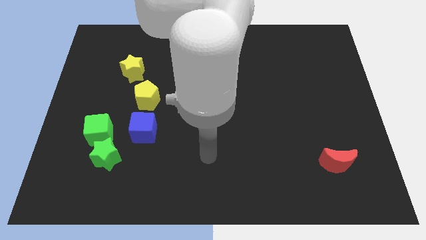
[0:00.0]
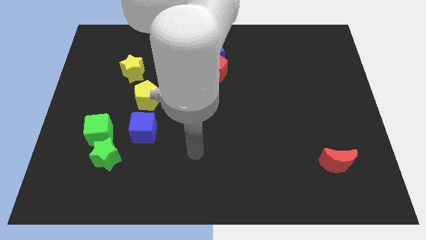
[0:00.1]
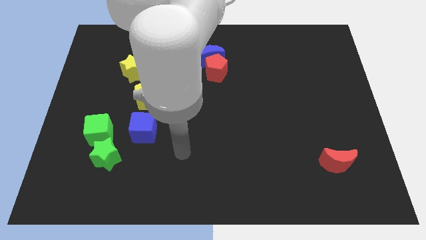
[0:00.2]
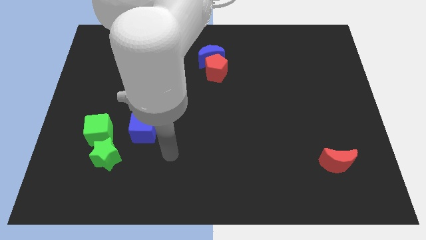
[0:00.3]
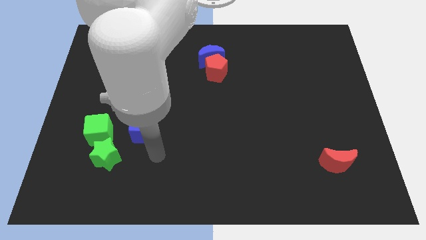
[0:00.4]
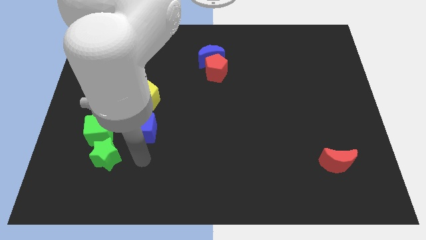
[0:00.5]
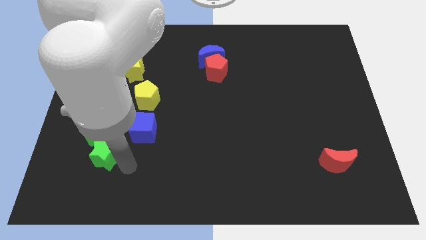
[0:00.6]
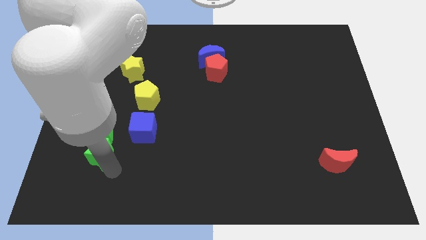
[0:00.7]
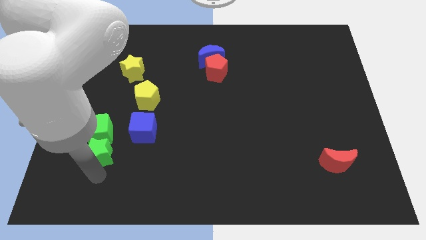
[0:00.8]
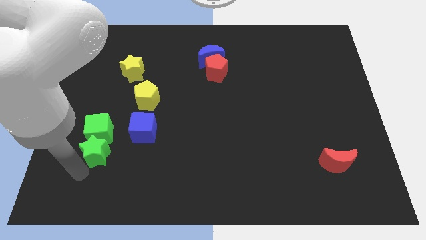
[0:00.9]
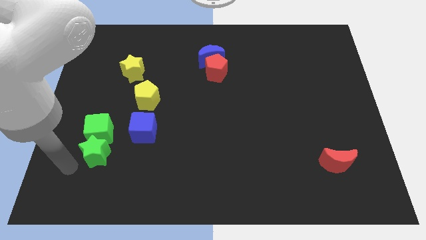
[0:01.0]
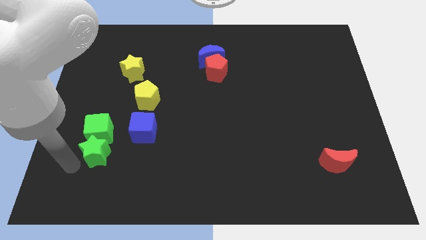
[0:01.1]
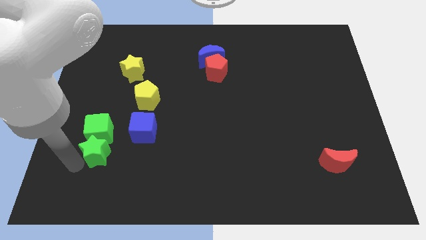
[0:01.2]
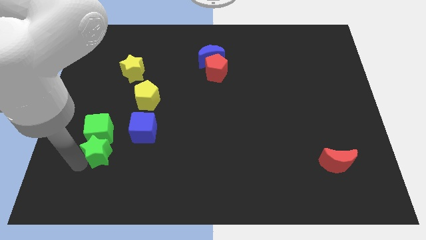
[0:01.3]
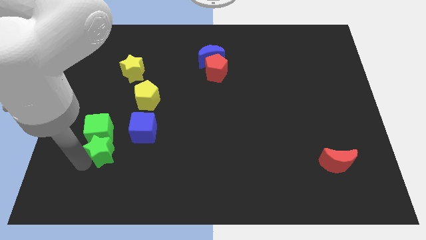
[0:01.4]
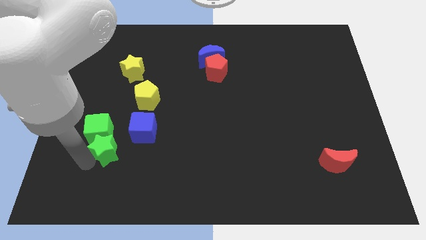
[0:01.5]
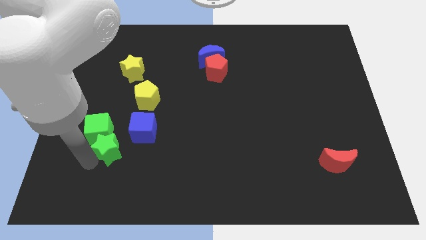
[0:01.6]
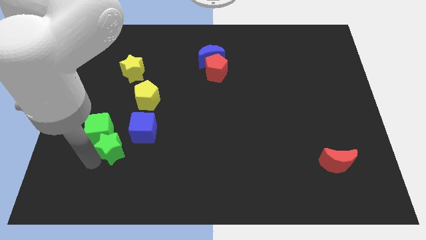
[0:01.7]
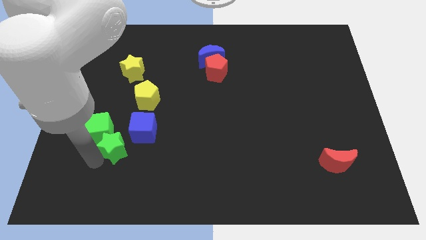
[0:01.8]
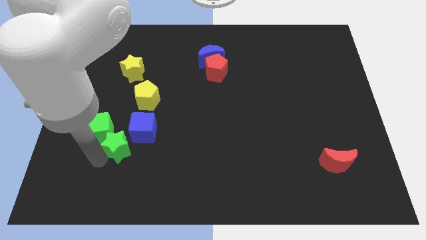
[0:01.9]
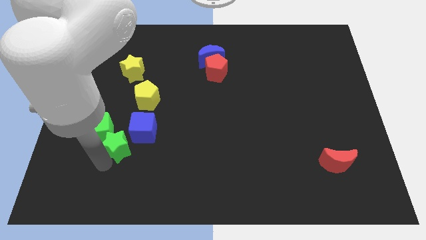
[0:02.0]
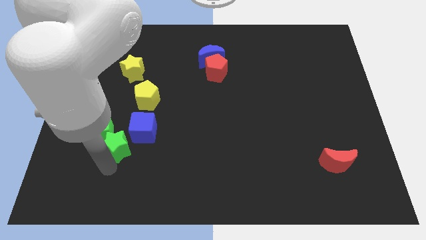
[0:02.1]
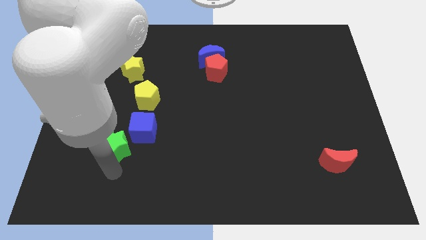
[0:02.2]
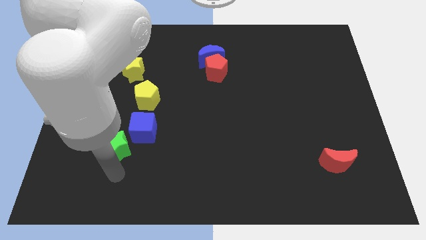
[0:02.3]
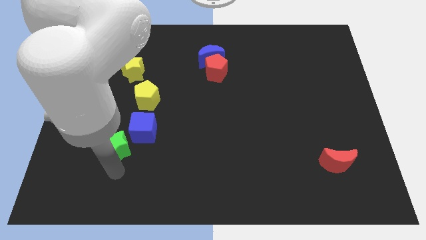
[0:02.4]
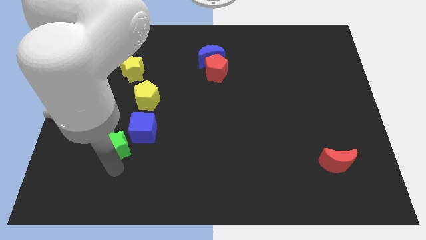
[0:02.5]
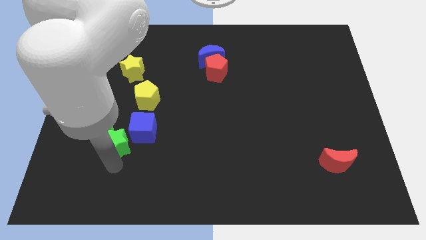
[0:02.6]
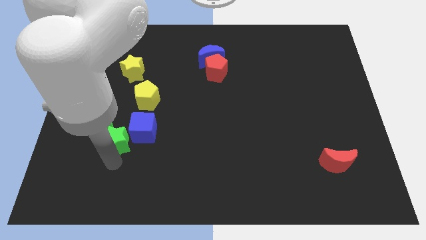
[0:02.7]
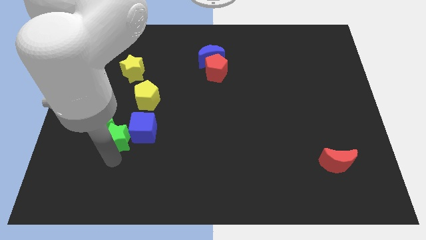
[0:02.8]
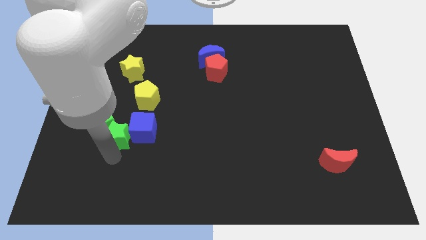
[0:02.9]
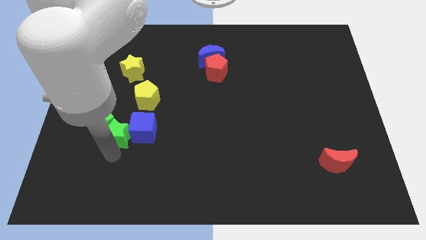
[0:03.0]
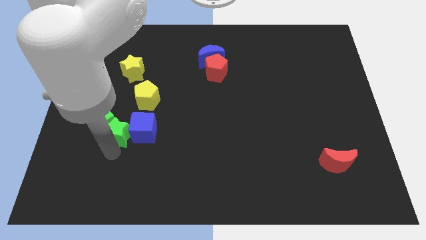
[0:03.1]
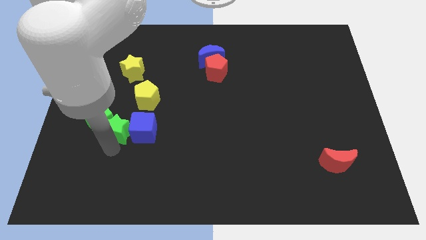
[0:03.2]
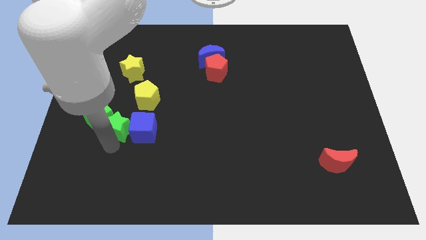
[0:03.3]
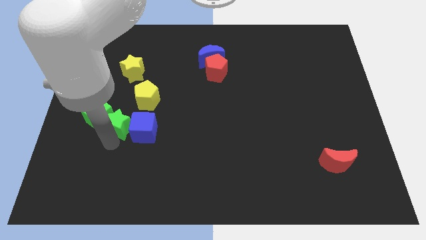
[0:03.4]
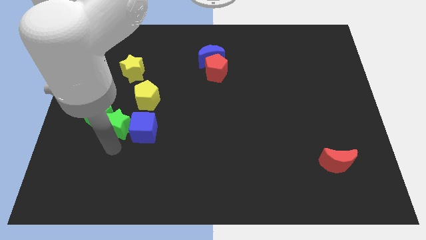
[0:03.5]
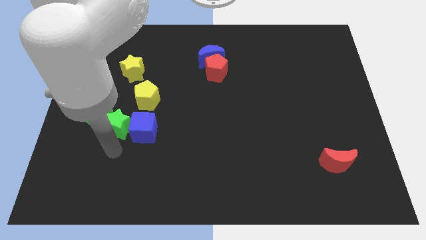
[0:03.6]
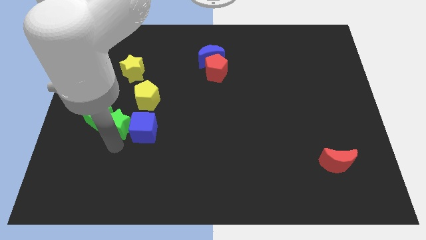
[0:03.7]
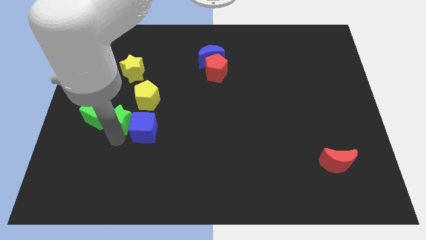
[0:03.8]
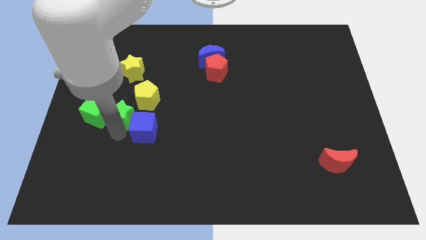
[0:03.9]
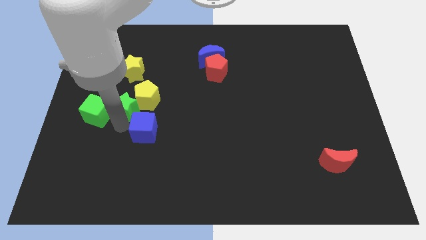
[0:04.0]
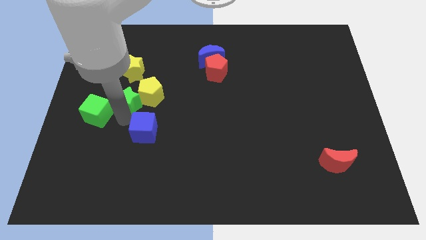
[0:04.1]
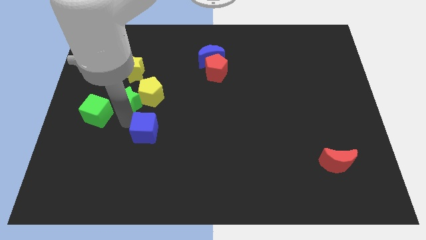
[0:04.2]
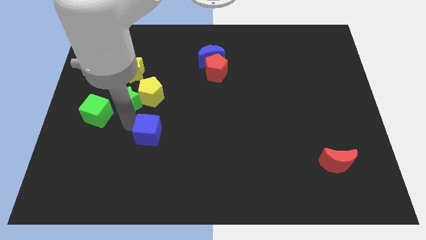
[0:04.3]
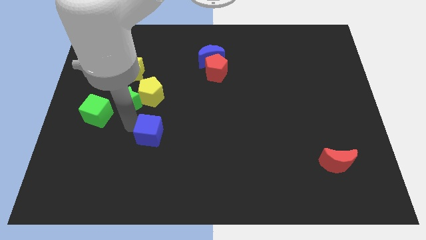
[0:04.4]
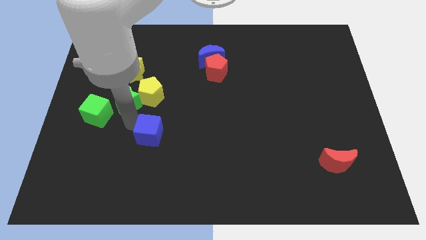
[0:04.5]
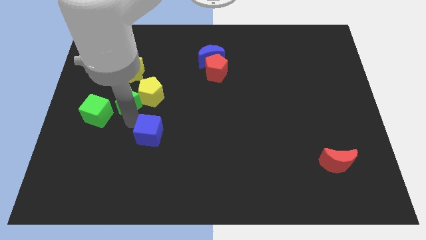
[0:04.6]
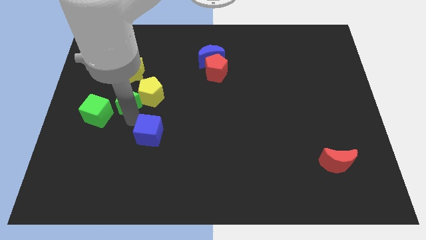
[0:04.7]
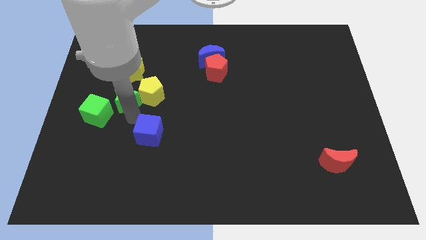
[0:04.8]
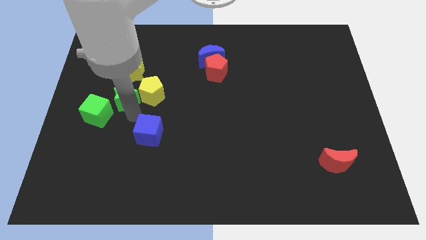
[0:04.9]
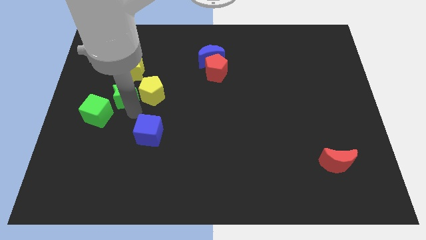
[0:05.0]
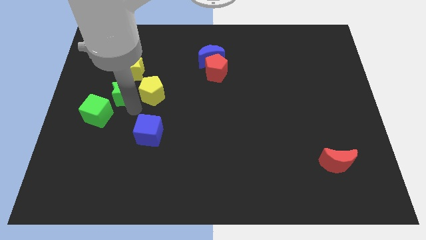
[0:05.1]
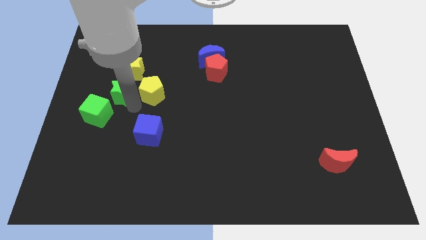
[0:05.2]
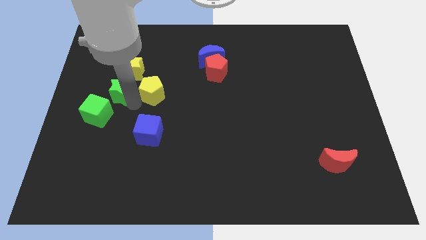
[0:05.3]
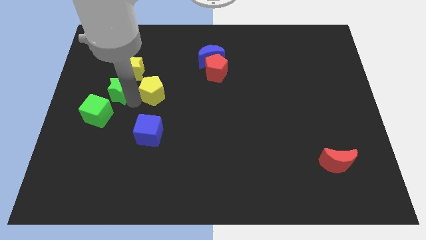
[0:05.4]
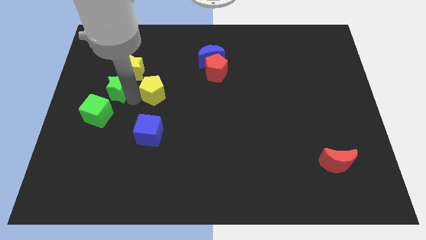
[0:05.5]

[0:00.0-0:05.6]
slide the green star next to the yellow star

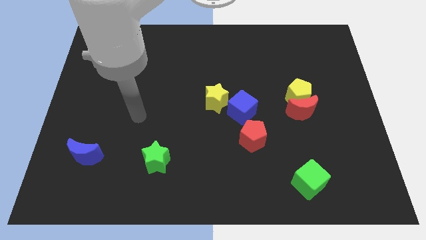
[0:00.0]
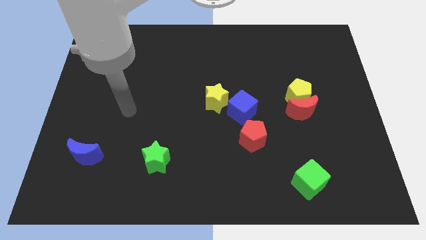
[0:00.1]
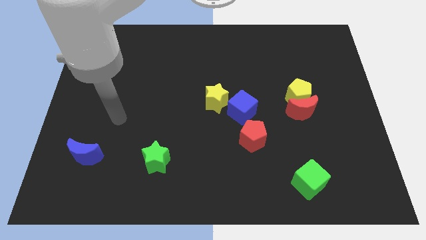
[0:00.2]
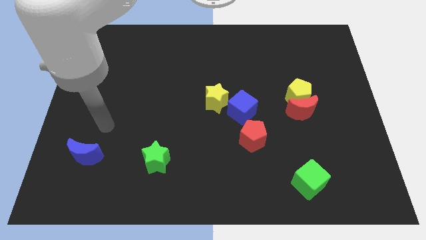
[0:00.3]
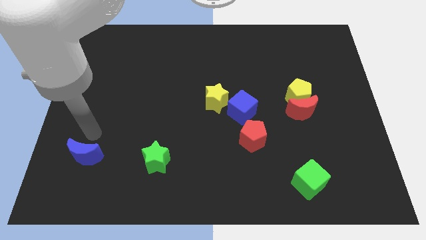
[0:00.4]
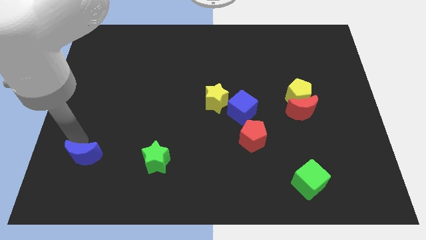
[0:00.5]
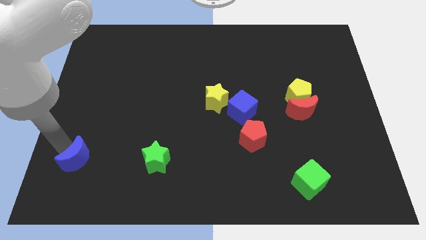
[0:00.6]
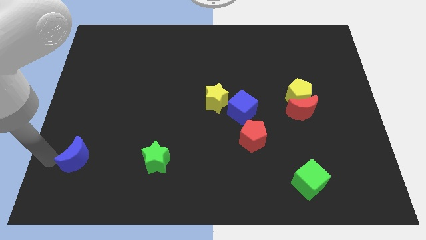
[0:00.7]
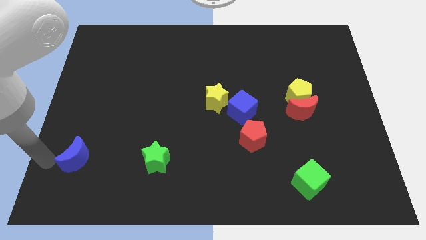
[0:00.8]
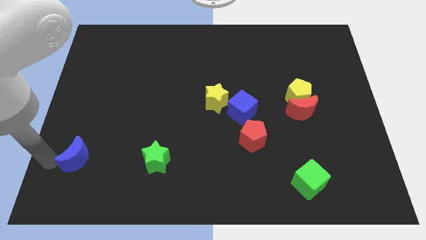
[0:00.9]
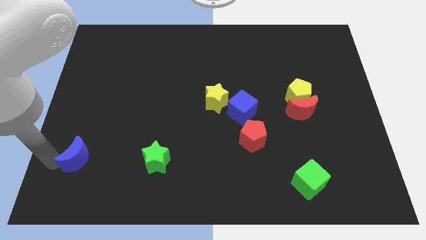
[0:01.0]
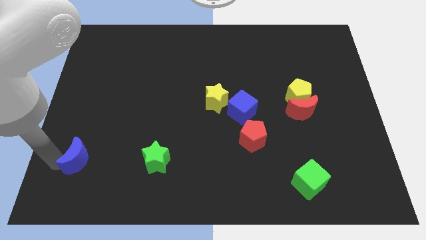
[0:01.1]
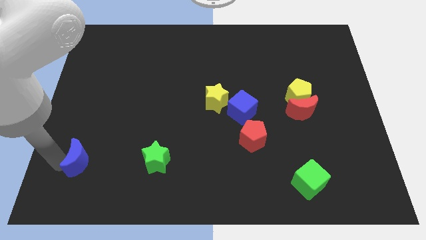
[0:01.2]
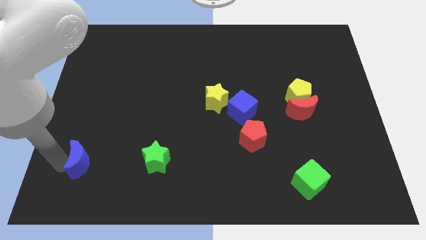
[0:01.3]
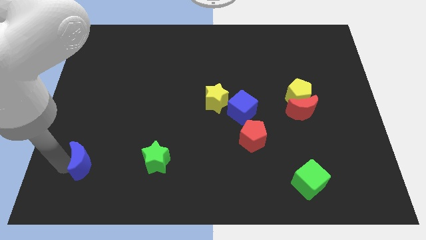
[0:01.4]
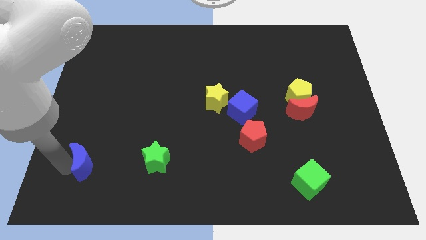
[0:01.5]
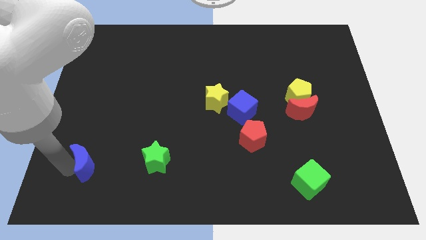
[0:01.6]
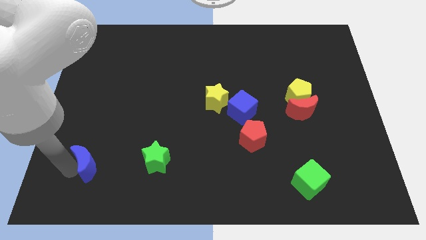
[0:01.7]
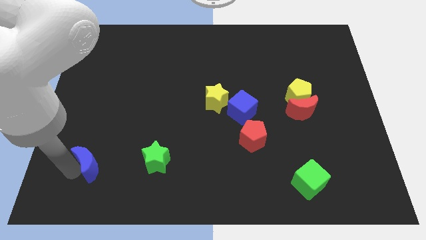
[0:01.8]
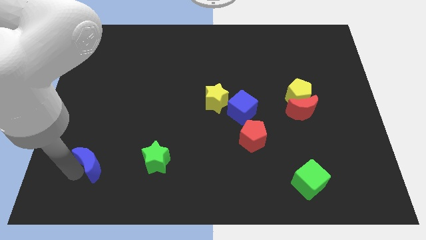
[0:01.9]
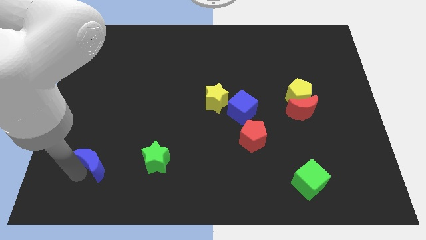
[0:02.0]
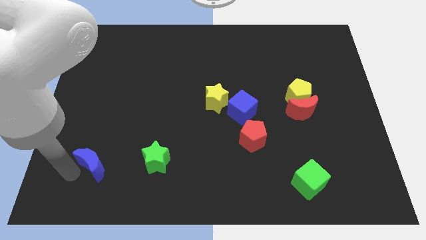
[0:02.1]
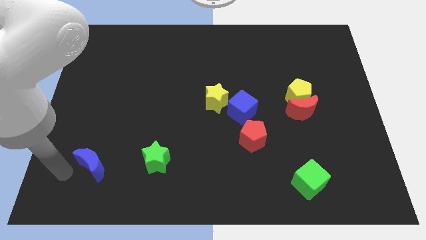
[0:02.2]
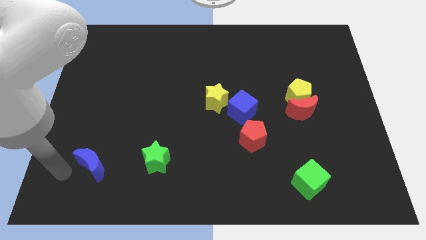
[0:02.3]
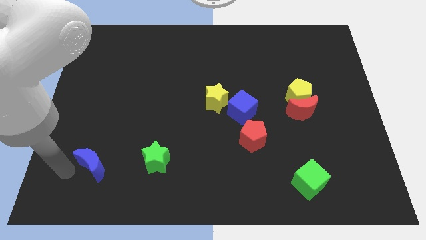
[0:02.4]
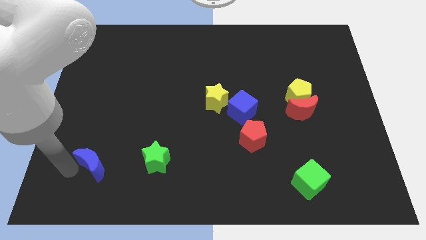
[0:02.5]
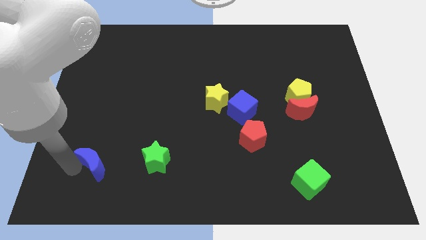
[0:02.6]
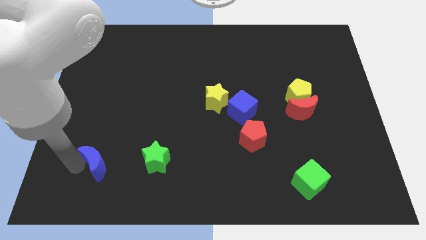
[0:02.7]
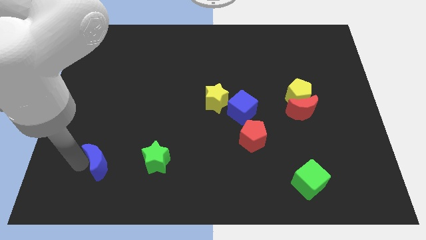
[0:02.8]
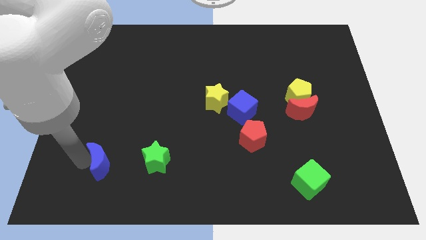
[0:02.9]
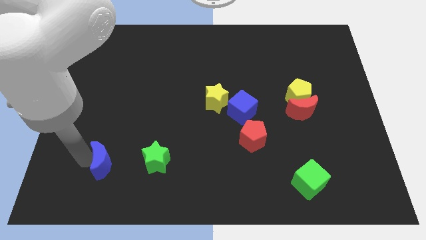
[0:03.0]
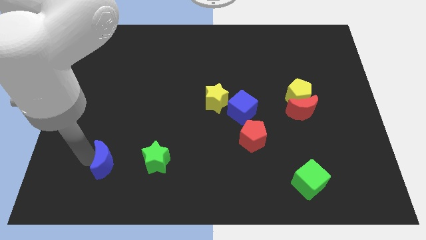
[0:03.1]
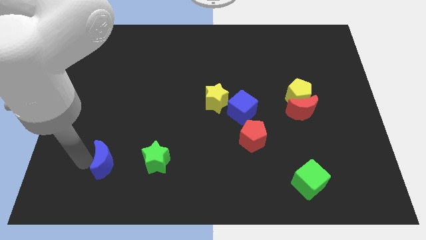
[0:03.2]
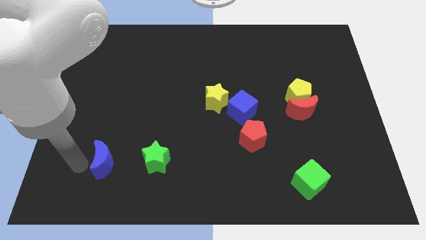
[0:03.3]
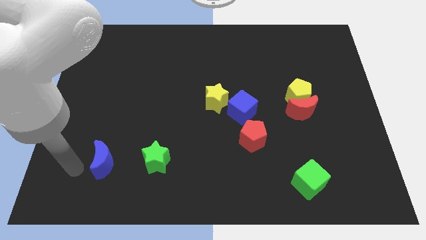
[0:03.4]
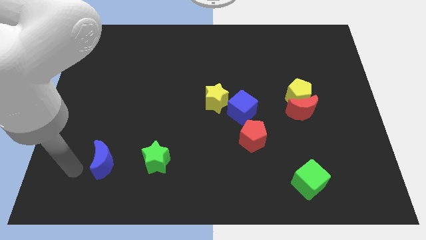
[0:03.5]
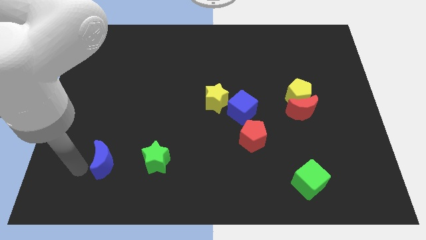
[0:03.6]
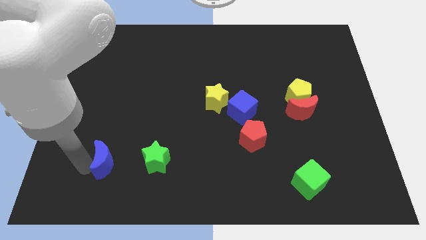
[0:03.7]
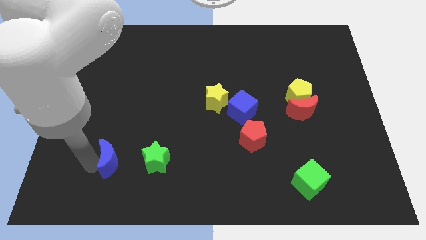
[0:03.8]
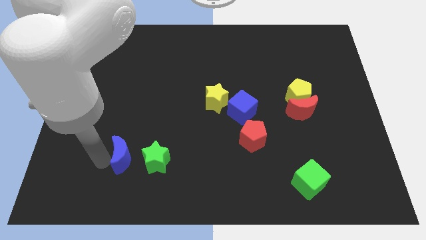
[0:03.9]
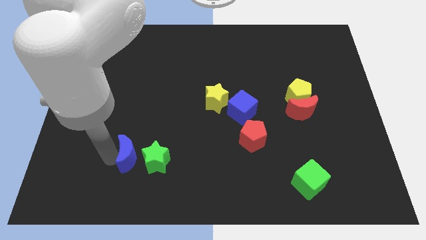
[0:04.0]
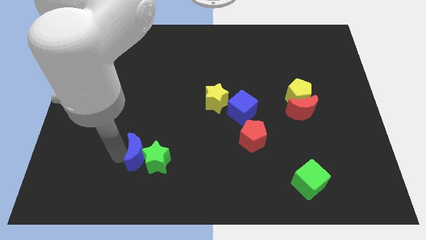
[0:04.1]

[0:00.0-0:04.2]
move the blue moon towards the green star
